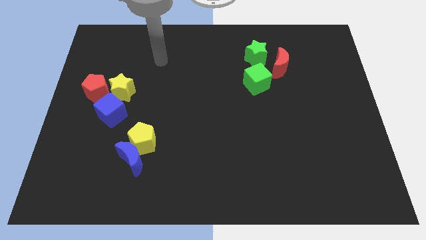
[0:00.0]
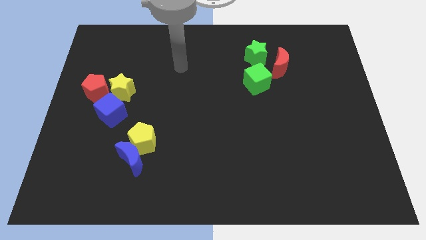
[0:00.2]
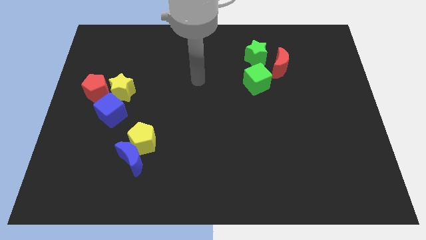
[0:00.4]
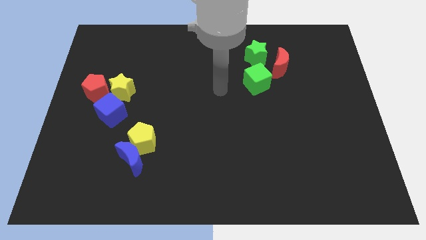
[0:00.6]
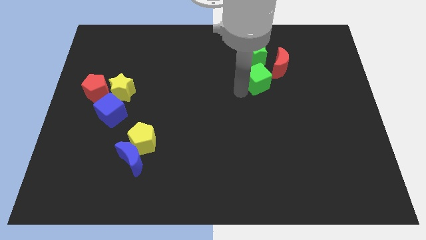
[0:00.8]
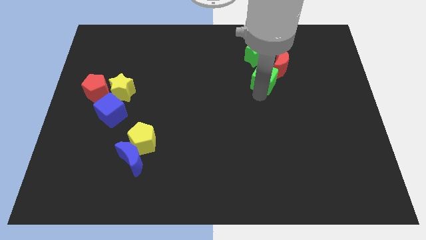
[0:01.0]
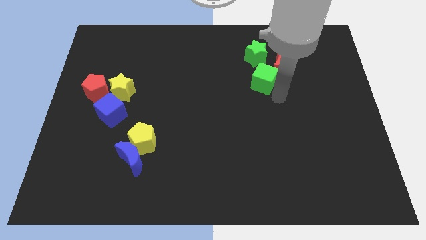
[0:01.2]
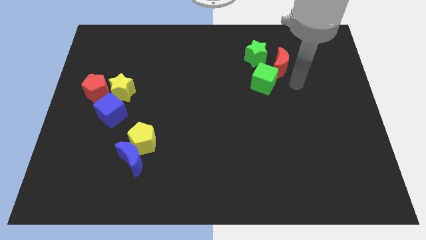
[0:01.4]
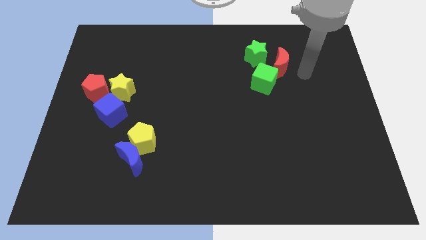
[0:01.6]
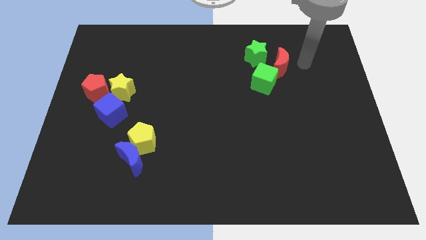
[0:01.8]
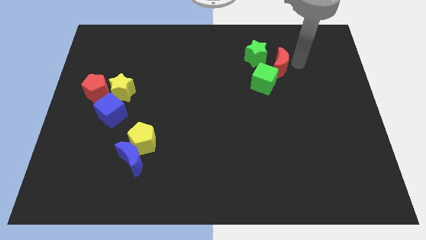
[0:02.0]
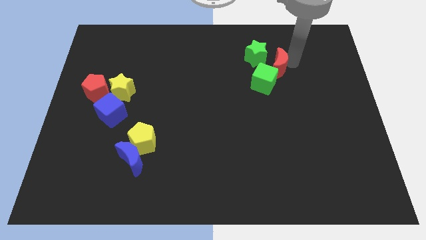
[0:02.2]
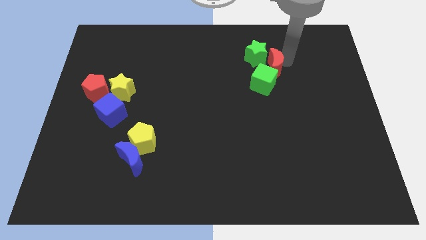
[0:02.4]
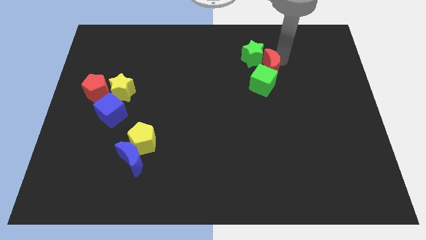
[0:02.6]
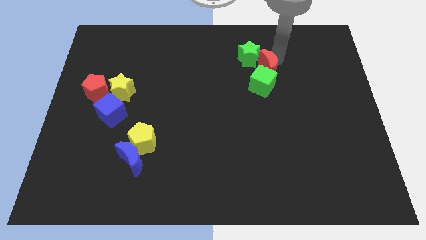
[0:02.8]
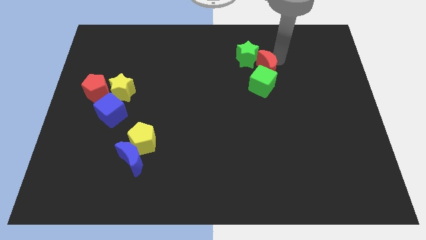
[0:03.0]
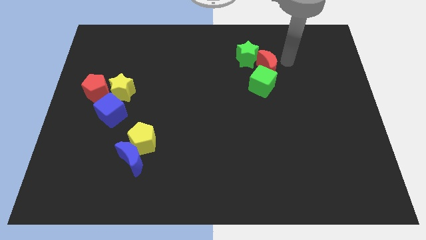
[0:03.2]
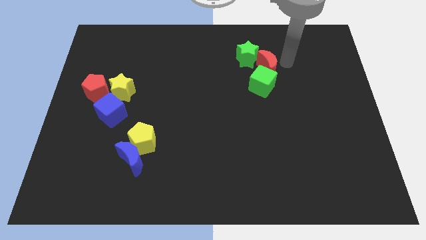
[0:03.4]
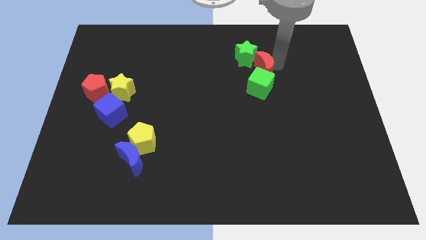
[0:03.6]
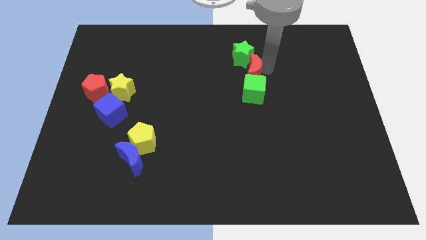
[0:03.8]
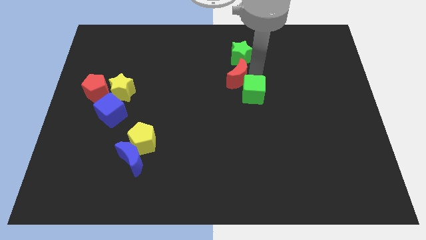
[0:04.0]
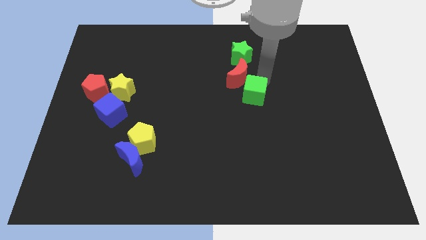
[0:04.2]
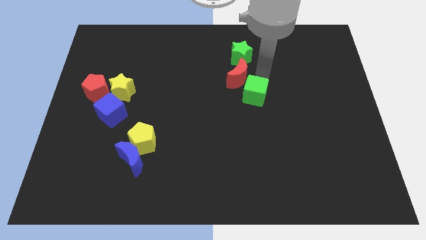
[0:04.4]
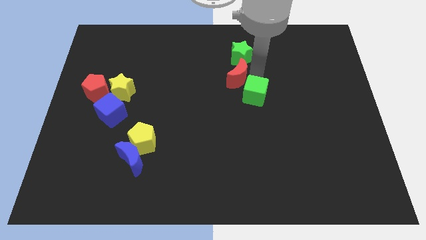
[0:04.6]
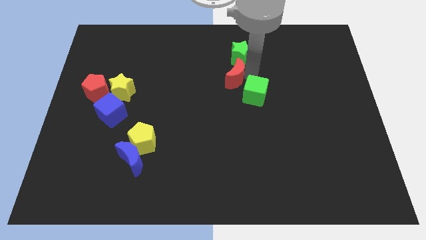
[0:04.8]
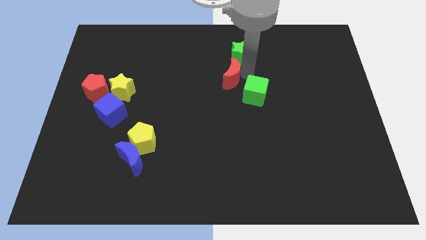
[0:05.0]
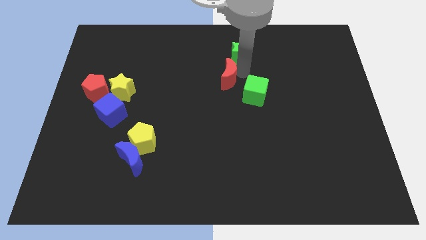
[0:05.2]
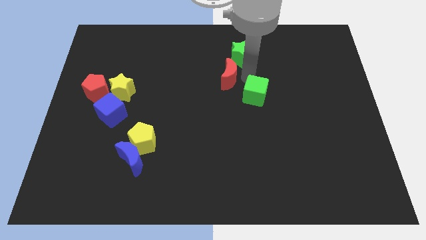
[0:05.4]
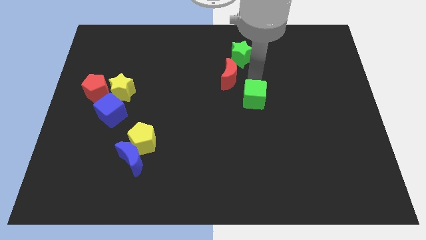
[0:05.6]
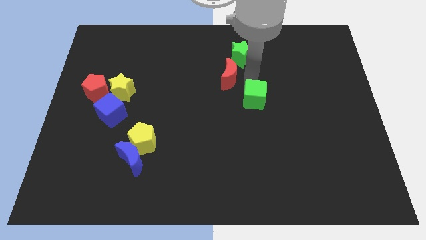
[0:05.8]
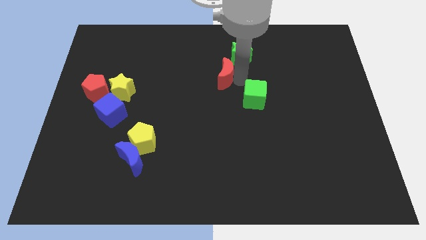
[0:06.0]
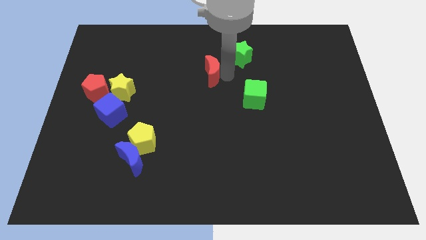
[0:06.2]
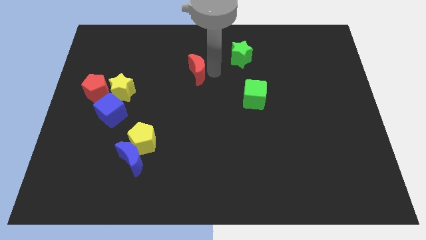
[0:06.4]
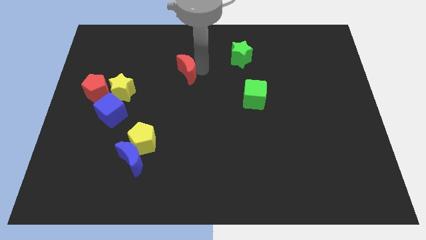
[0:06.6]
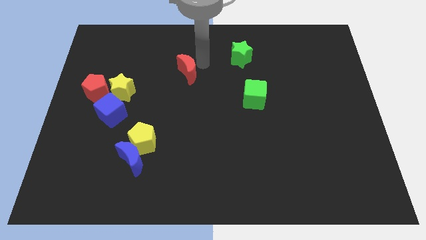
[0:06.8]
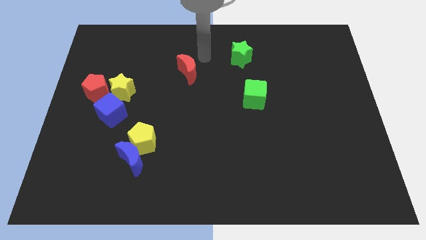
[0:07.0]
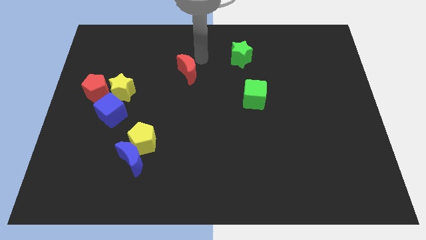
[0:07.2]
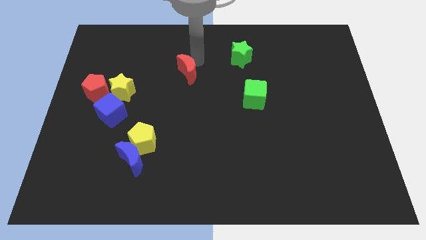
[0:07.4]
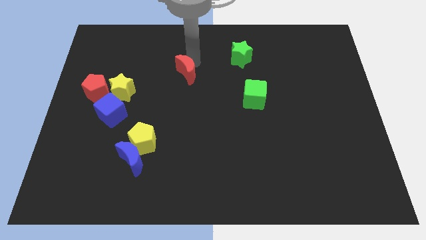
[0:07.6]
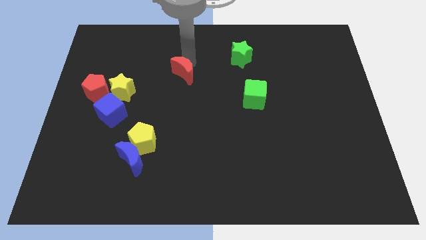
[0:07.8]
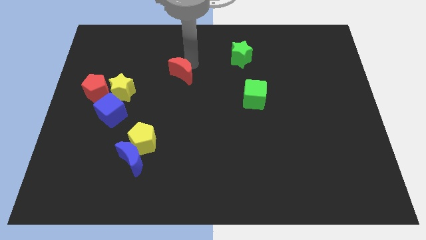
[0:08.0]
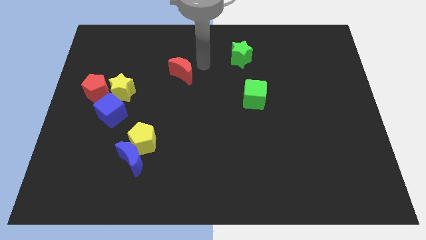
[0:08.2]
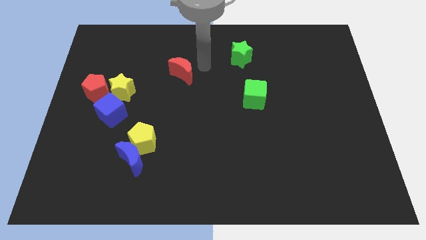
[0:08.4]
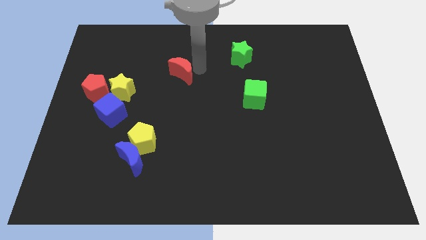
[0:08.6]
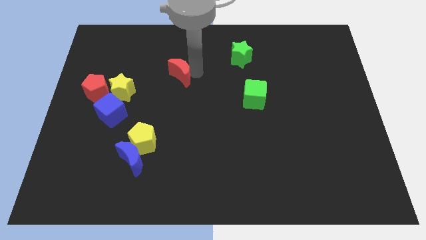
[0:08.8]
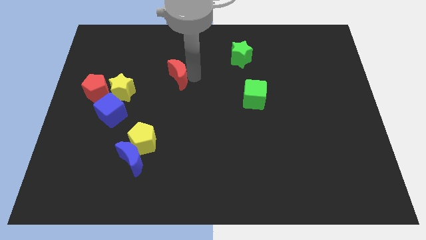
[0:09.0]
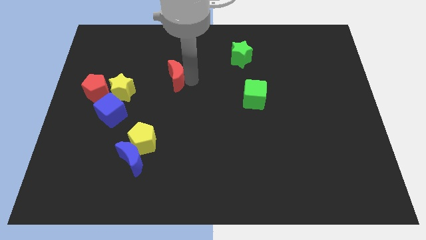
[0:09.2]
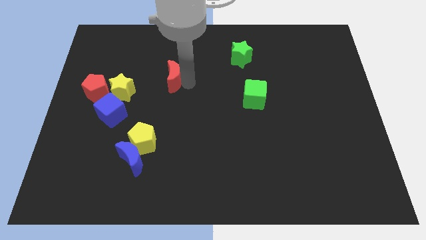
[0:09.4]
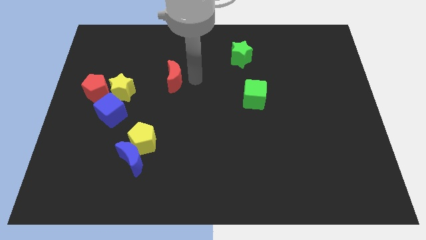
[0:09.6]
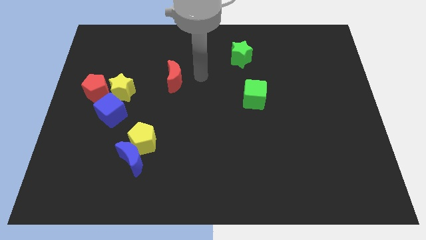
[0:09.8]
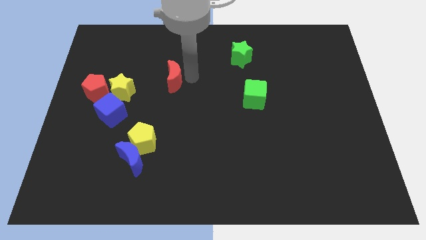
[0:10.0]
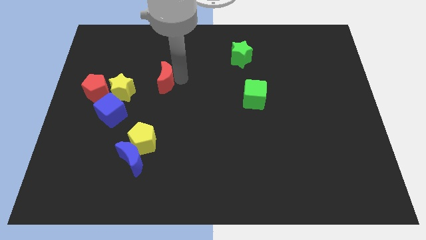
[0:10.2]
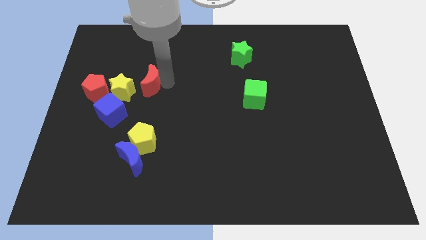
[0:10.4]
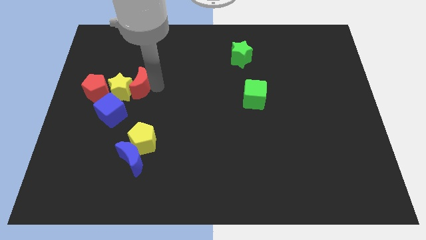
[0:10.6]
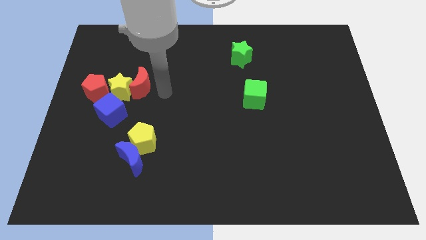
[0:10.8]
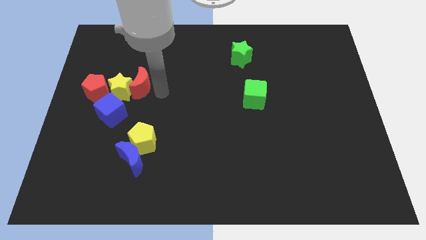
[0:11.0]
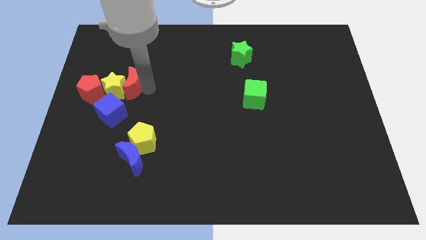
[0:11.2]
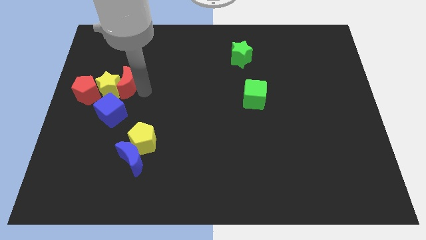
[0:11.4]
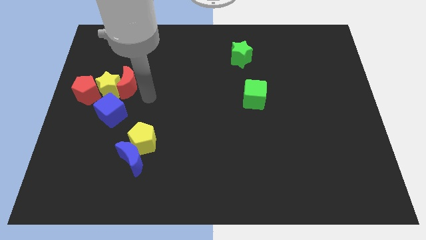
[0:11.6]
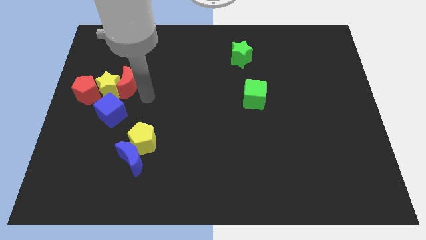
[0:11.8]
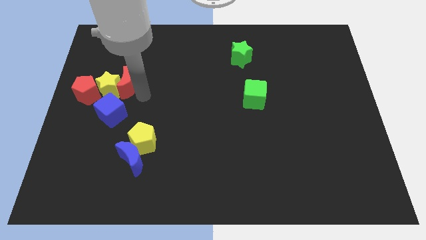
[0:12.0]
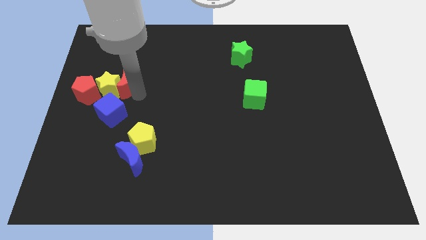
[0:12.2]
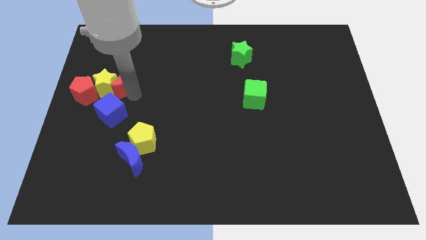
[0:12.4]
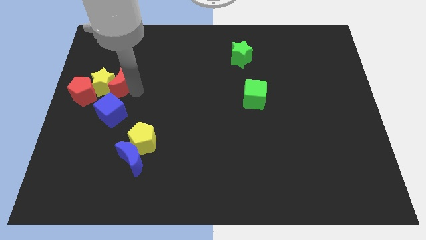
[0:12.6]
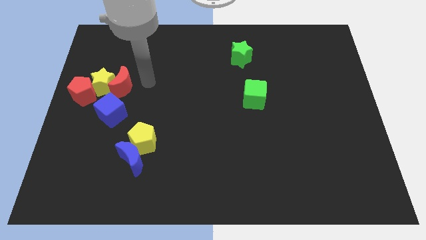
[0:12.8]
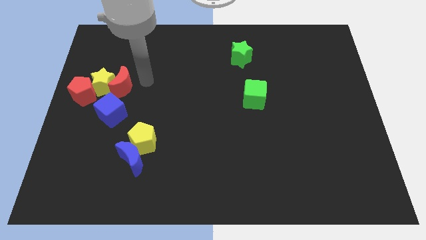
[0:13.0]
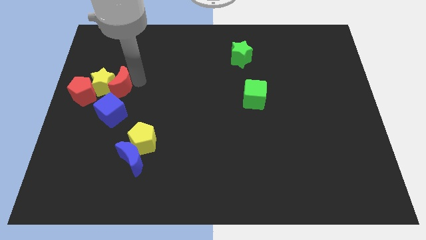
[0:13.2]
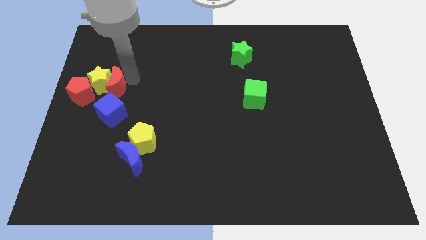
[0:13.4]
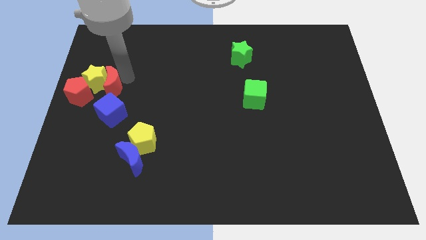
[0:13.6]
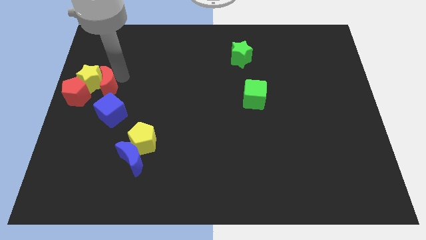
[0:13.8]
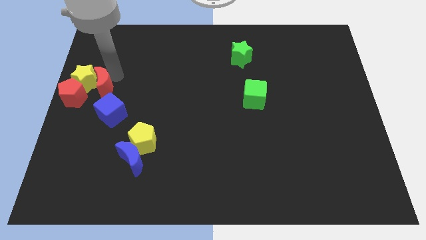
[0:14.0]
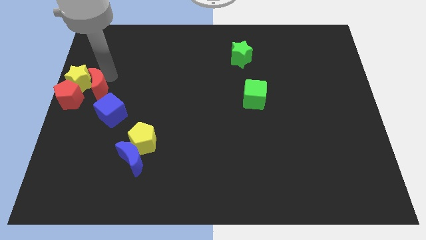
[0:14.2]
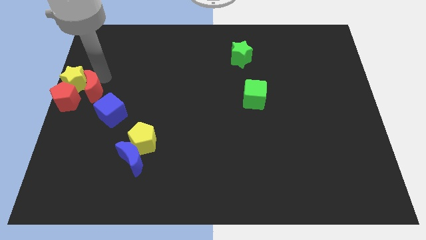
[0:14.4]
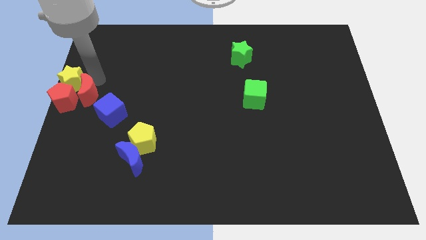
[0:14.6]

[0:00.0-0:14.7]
slide the red moon close to the red pentagon

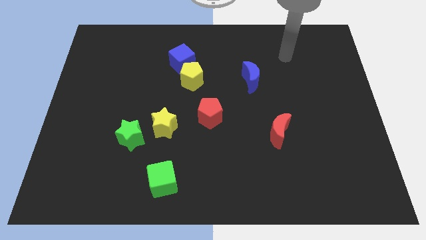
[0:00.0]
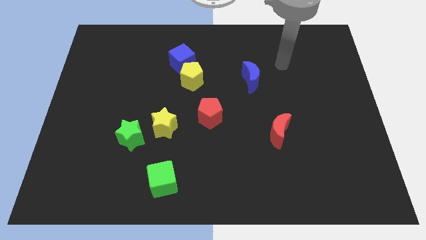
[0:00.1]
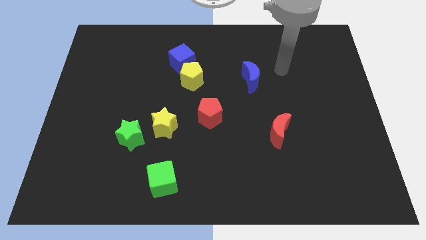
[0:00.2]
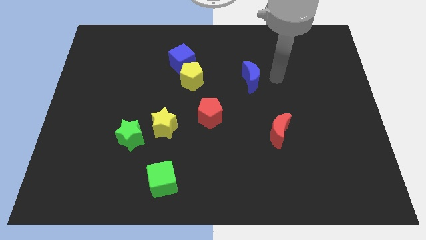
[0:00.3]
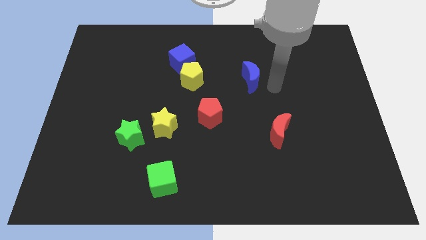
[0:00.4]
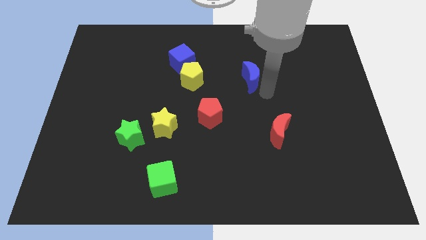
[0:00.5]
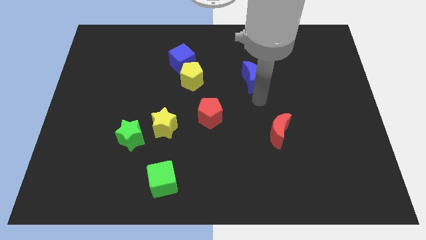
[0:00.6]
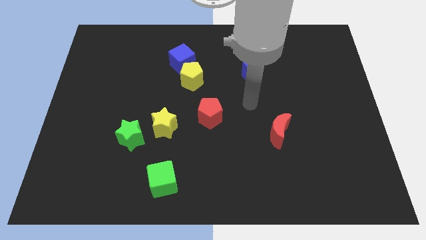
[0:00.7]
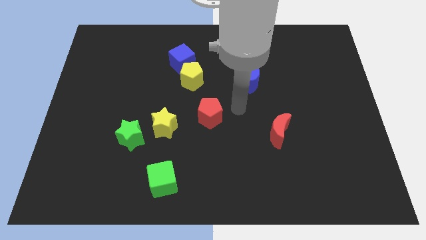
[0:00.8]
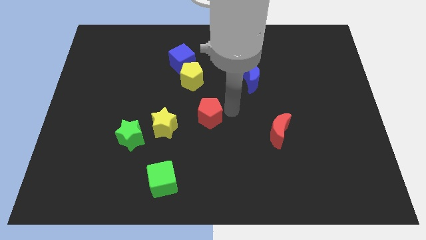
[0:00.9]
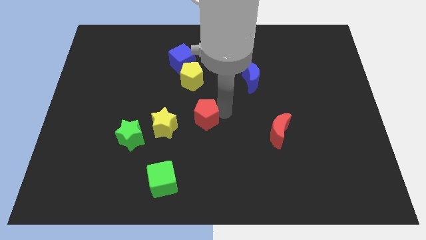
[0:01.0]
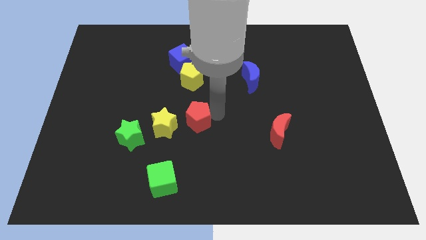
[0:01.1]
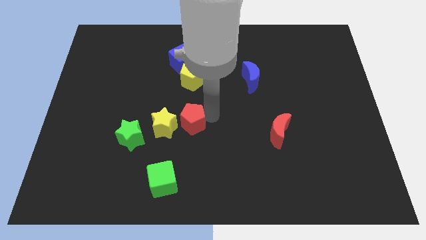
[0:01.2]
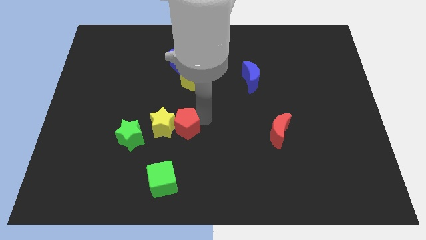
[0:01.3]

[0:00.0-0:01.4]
push the red pentagon next to the yellow star
